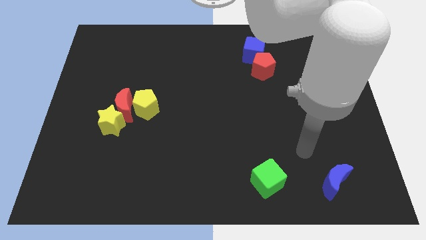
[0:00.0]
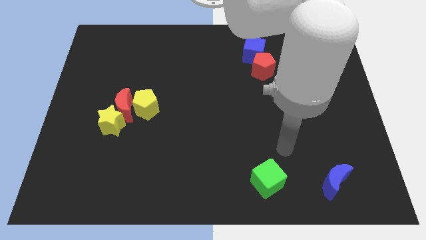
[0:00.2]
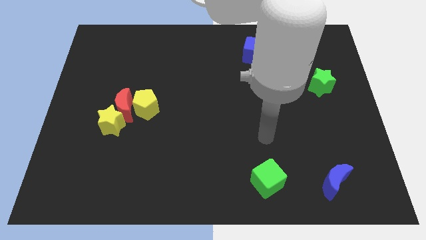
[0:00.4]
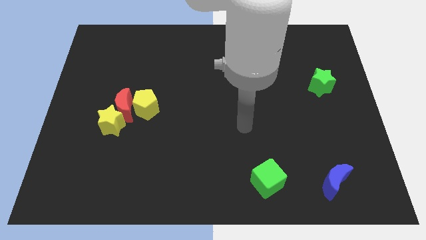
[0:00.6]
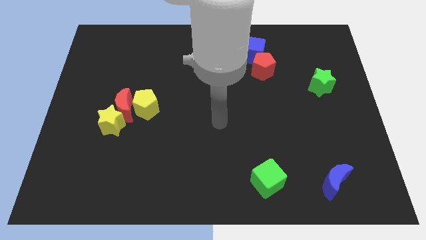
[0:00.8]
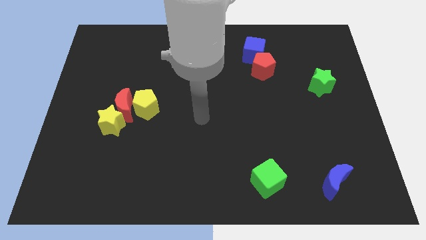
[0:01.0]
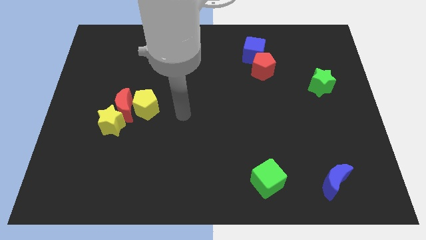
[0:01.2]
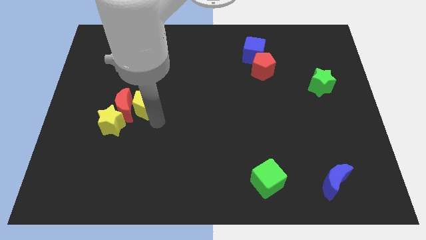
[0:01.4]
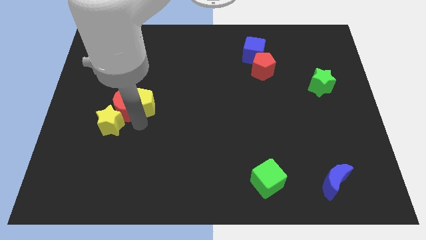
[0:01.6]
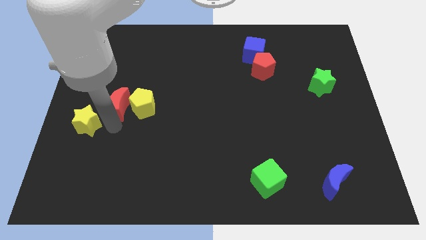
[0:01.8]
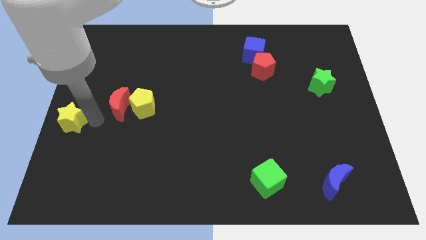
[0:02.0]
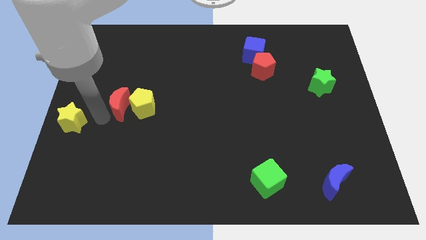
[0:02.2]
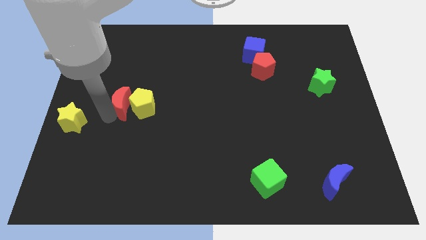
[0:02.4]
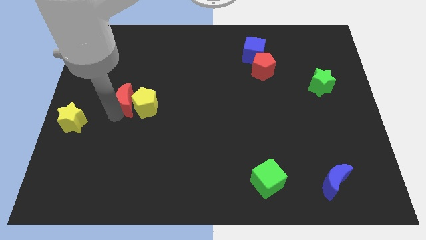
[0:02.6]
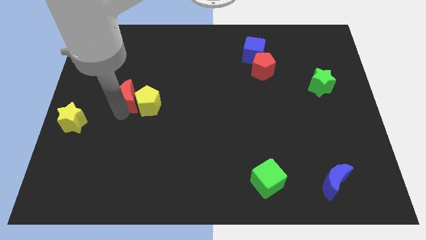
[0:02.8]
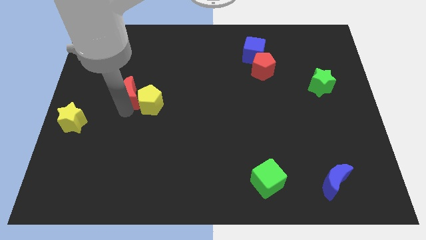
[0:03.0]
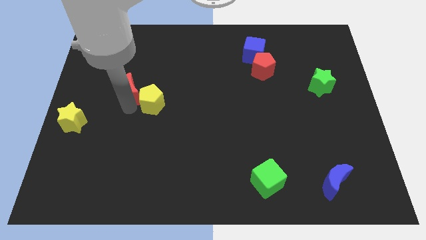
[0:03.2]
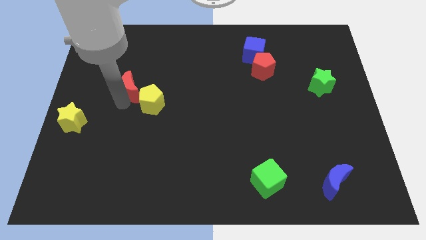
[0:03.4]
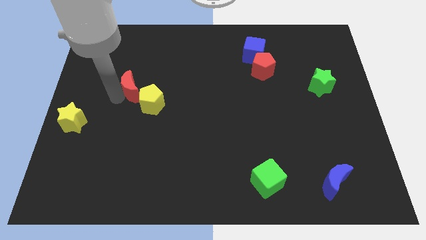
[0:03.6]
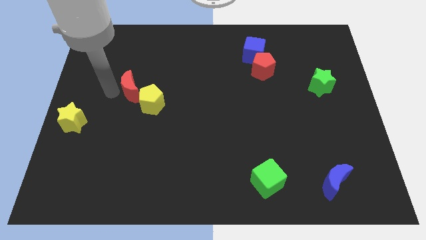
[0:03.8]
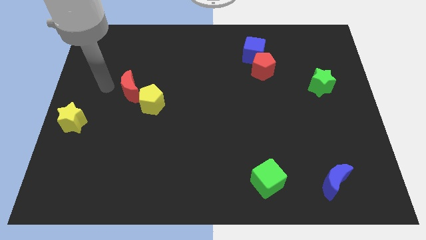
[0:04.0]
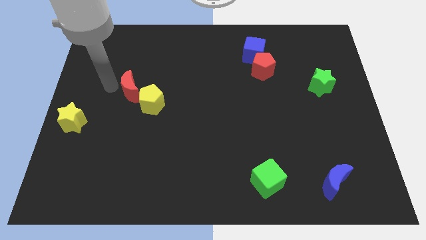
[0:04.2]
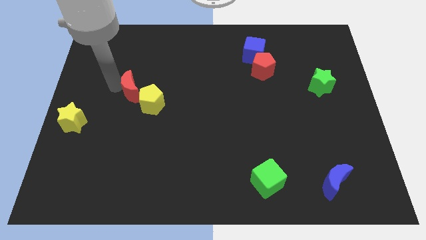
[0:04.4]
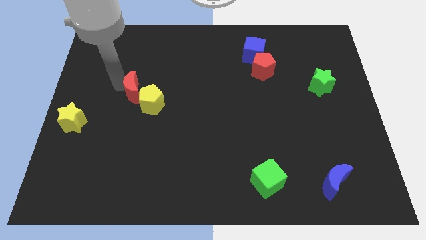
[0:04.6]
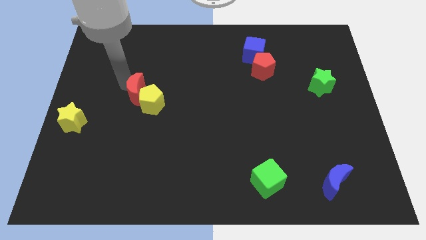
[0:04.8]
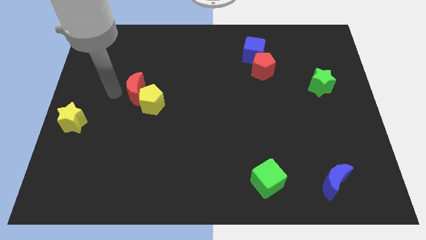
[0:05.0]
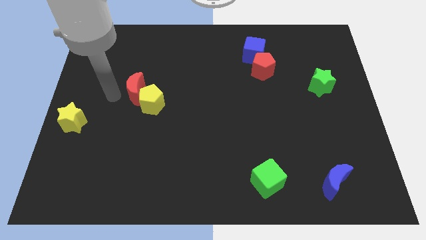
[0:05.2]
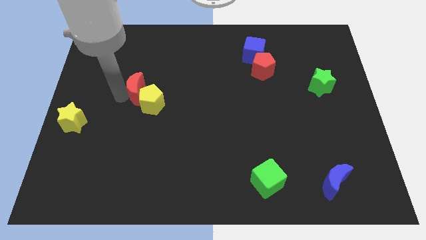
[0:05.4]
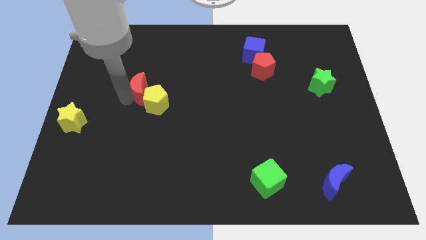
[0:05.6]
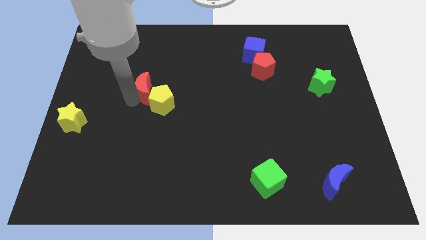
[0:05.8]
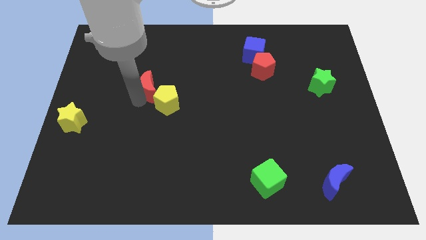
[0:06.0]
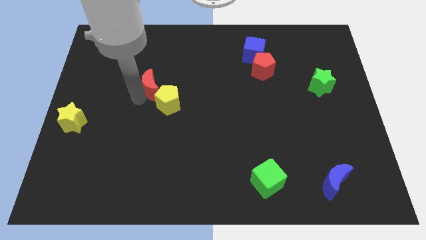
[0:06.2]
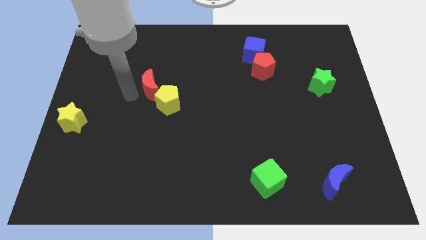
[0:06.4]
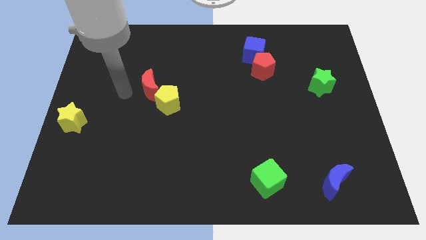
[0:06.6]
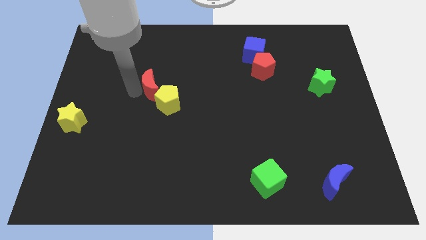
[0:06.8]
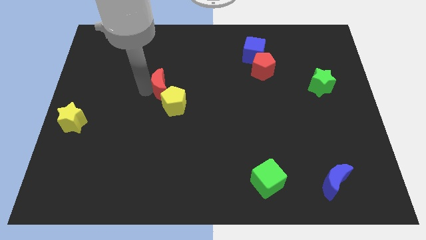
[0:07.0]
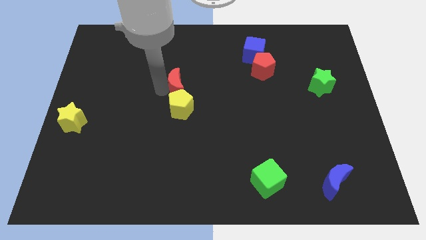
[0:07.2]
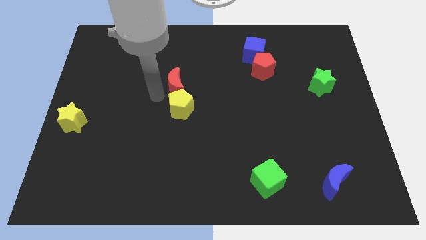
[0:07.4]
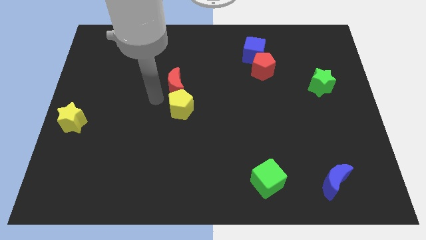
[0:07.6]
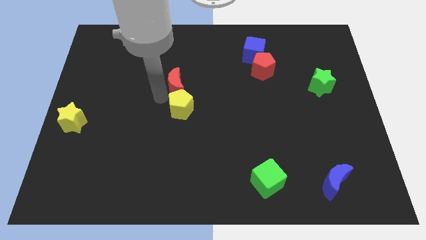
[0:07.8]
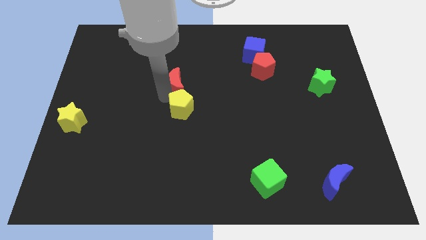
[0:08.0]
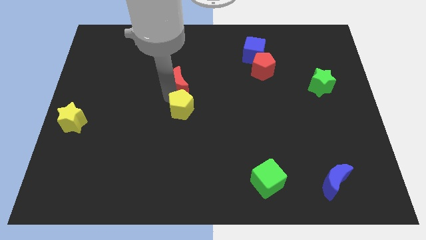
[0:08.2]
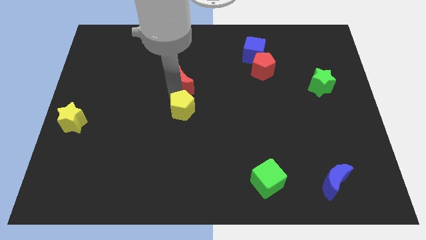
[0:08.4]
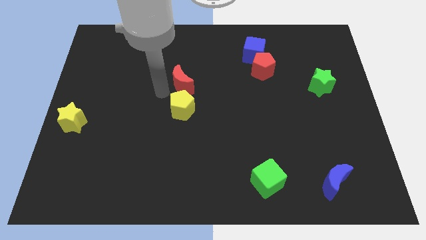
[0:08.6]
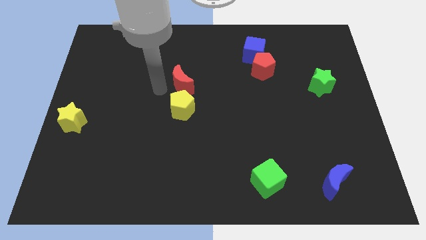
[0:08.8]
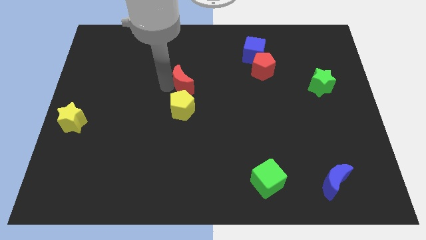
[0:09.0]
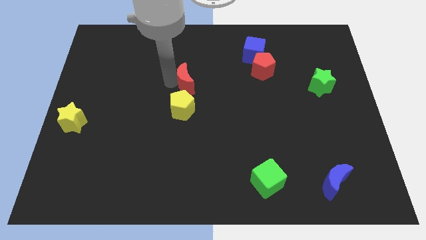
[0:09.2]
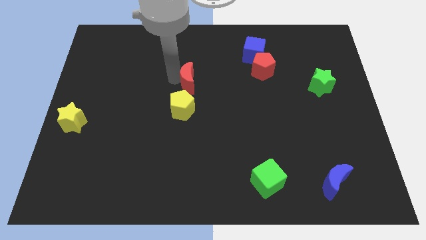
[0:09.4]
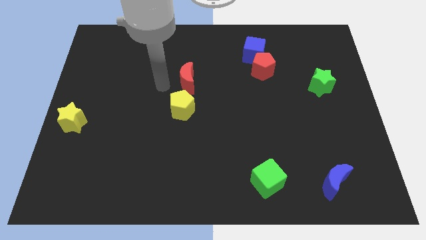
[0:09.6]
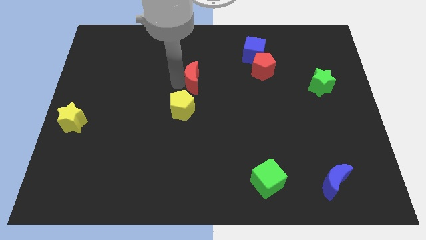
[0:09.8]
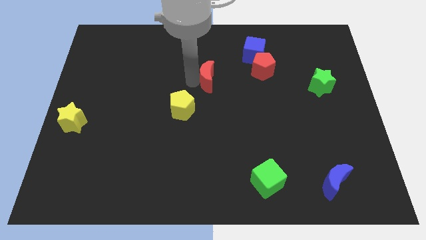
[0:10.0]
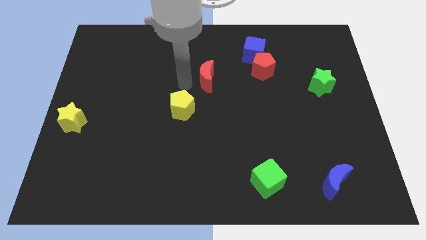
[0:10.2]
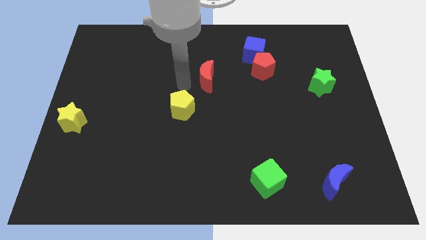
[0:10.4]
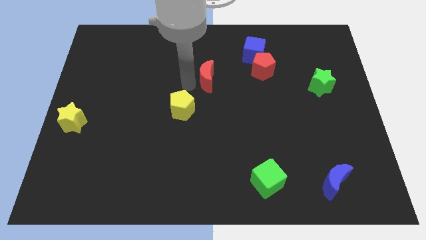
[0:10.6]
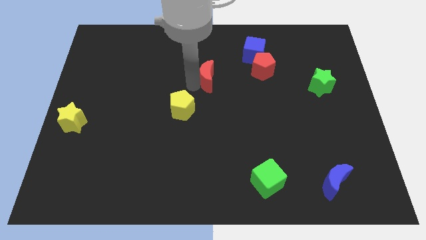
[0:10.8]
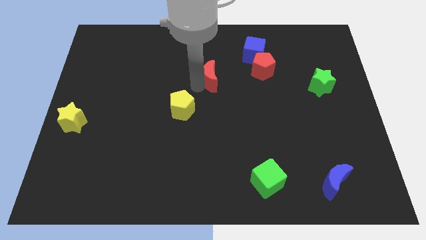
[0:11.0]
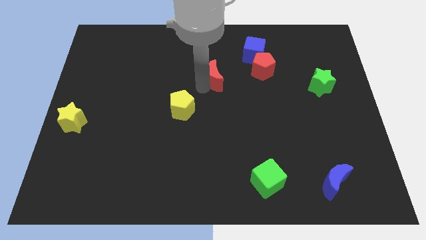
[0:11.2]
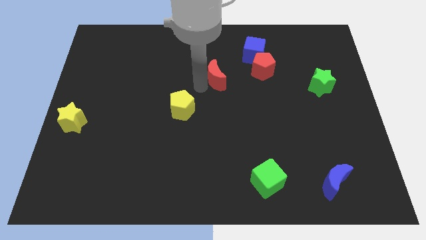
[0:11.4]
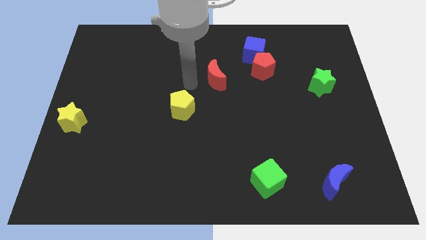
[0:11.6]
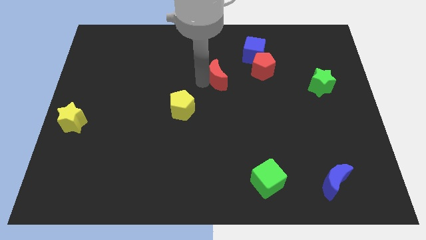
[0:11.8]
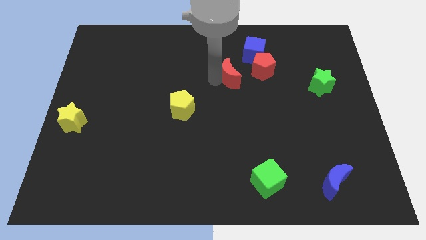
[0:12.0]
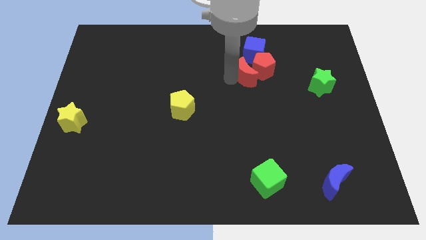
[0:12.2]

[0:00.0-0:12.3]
slide the red moon next to the red pentagon

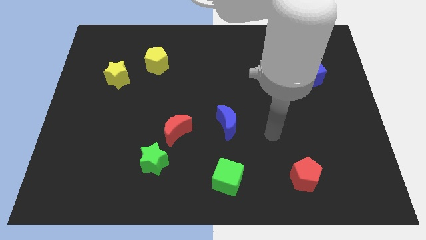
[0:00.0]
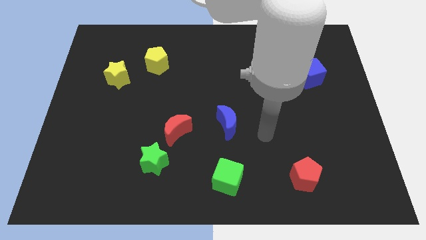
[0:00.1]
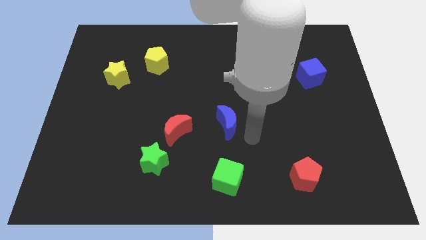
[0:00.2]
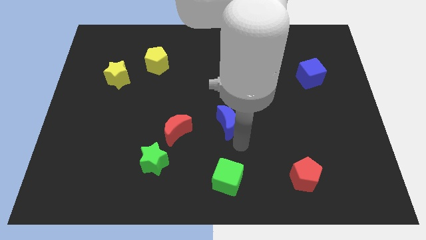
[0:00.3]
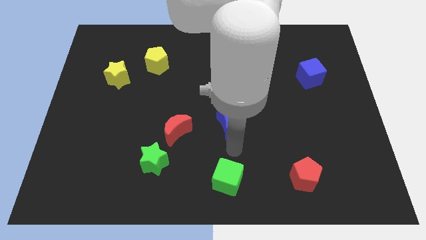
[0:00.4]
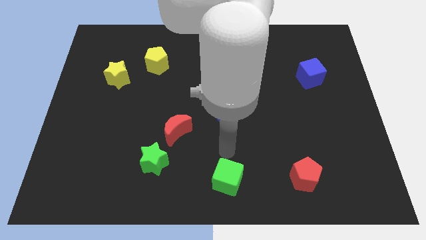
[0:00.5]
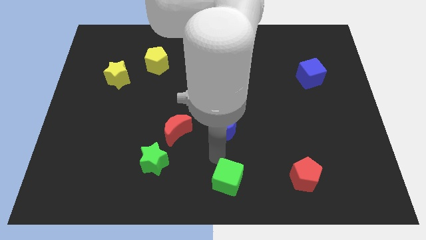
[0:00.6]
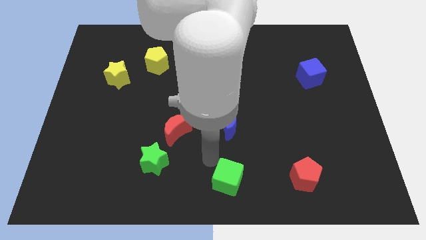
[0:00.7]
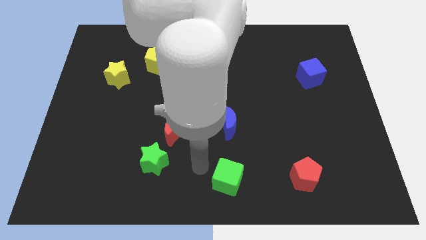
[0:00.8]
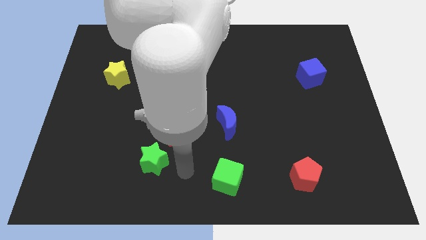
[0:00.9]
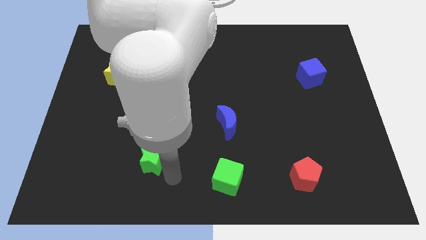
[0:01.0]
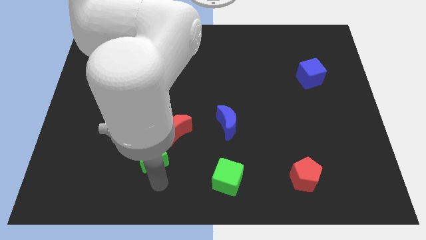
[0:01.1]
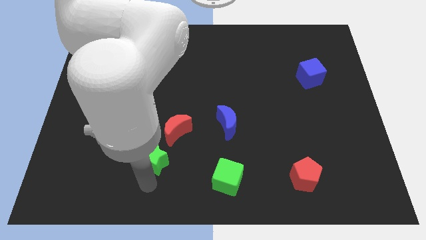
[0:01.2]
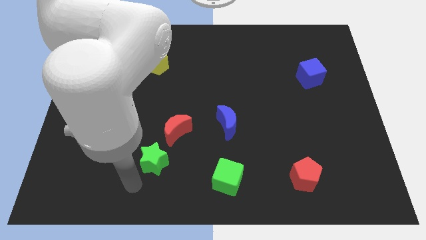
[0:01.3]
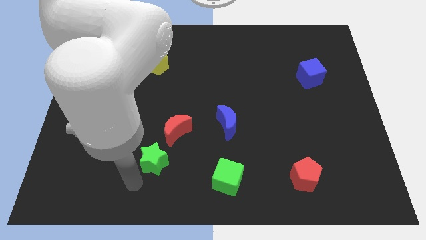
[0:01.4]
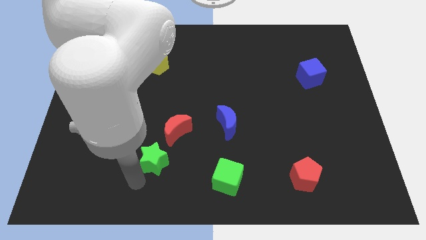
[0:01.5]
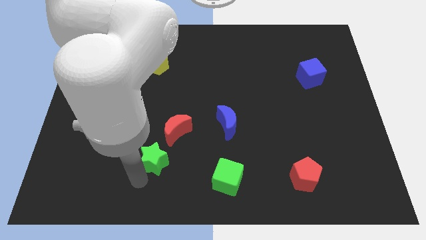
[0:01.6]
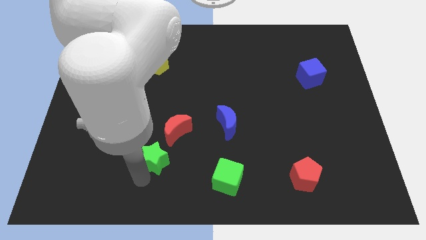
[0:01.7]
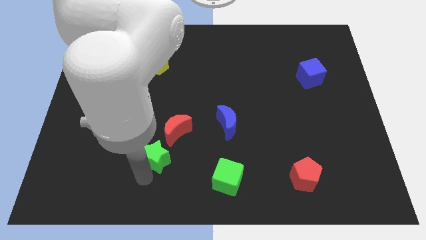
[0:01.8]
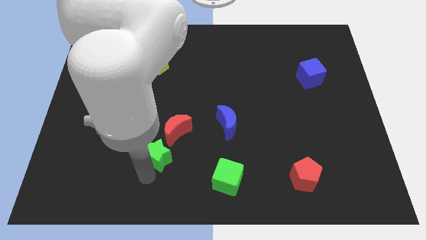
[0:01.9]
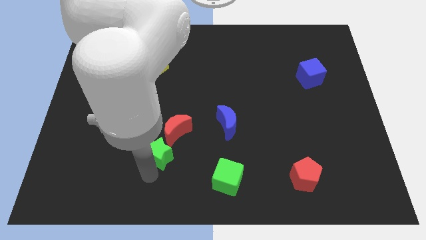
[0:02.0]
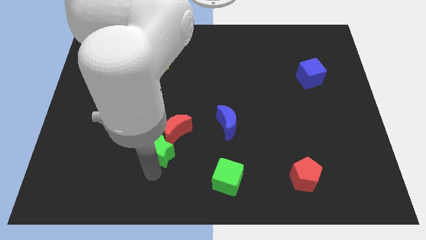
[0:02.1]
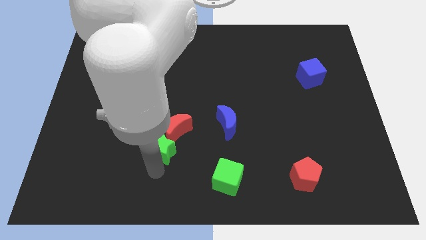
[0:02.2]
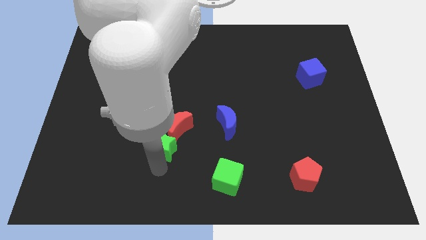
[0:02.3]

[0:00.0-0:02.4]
push the green star to the red moon
